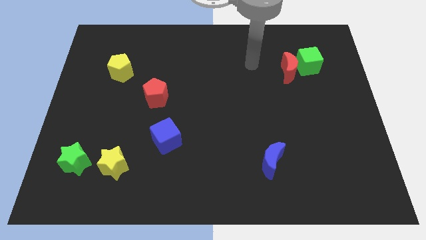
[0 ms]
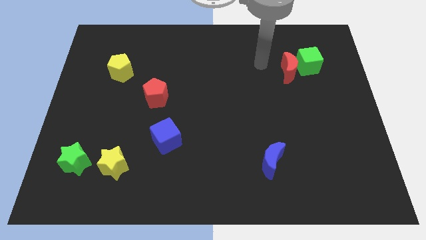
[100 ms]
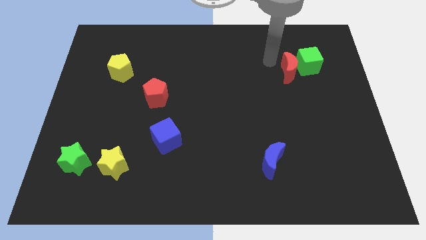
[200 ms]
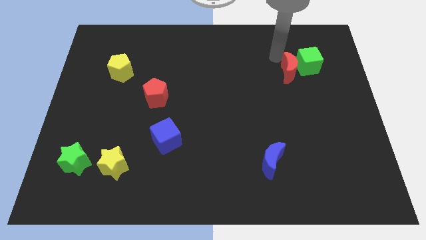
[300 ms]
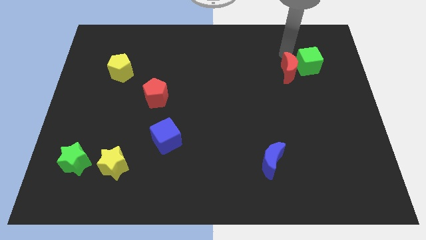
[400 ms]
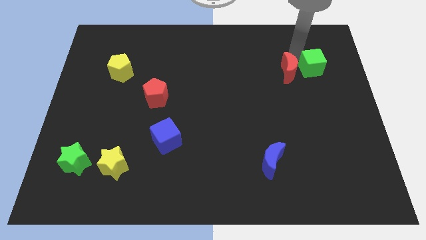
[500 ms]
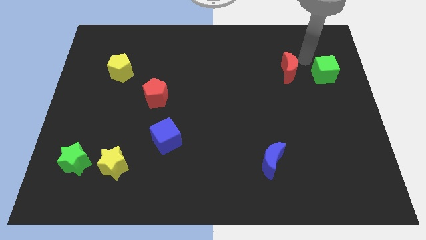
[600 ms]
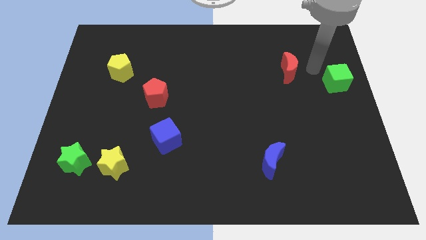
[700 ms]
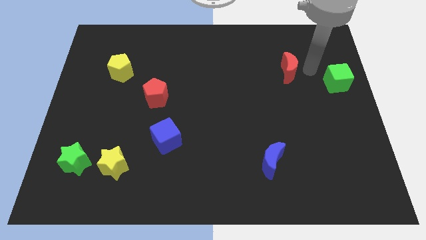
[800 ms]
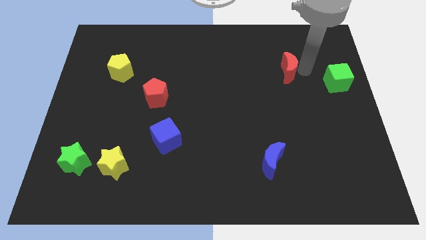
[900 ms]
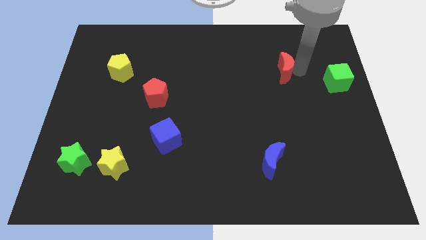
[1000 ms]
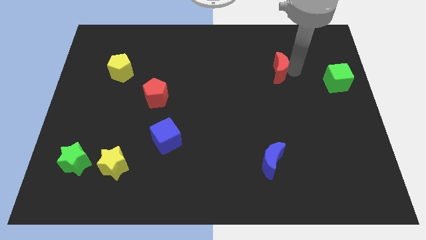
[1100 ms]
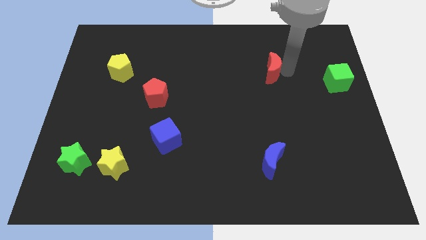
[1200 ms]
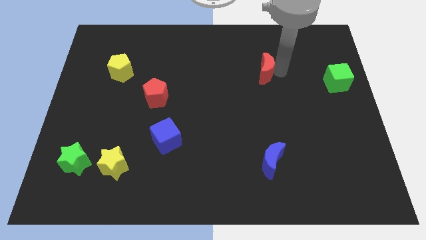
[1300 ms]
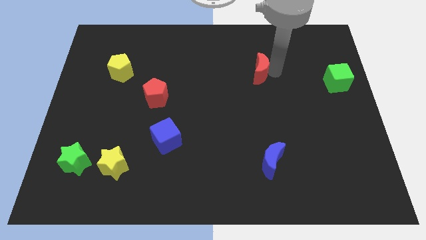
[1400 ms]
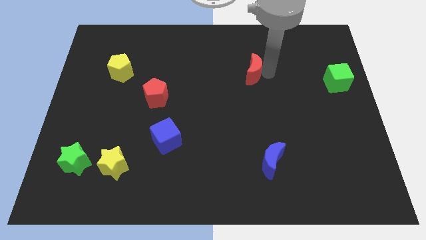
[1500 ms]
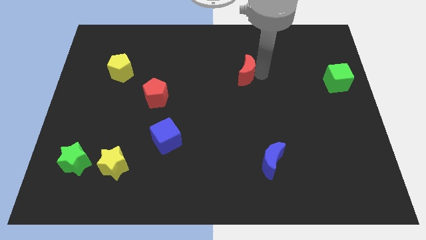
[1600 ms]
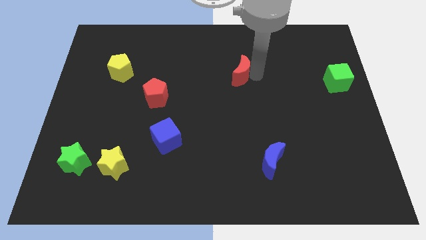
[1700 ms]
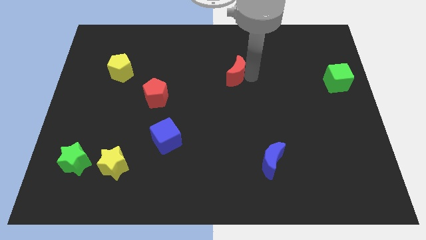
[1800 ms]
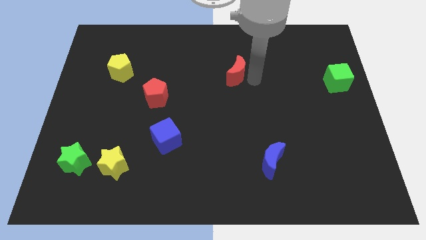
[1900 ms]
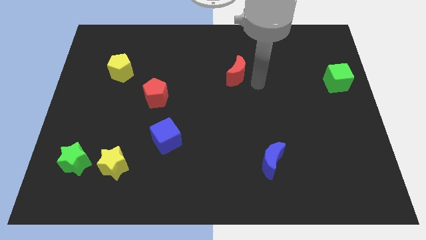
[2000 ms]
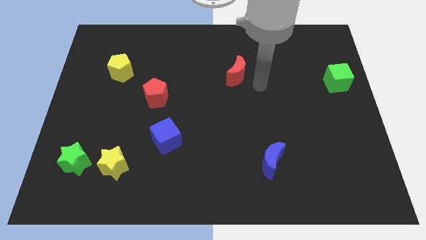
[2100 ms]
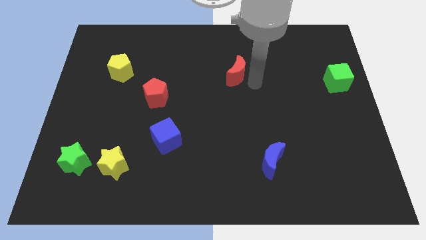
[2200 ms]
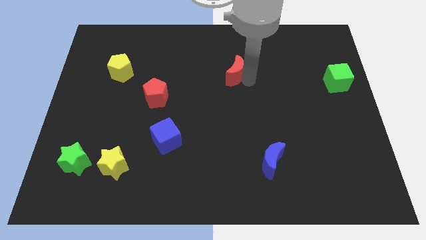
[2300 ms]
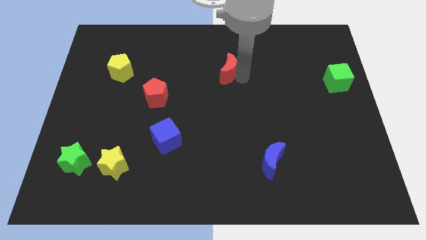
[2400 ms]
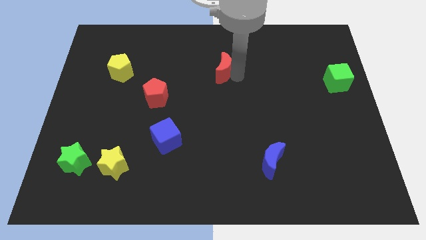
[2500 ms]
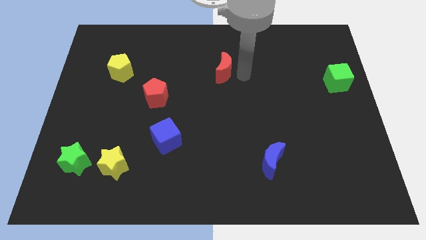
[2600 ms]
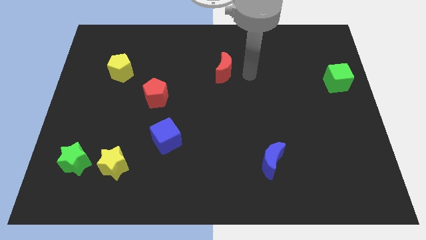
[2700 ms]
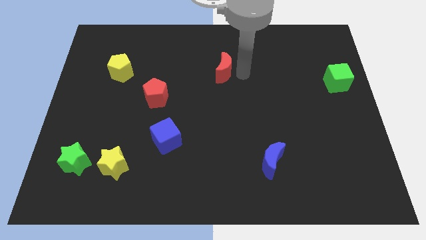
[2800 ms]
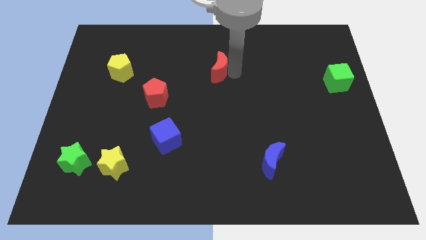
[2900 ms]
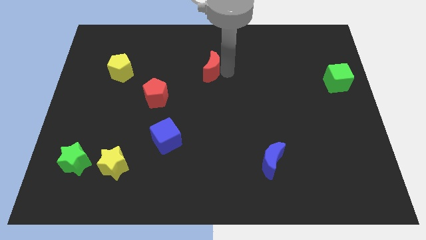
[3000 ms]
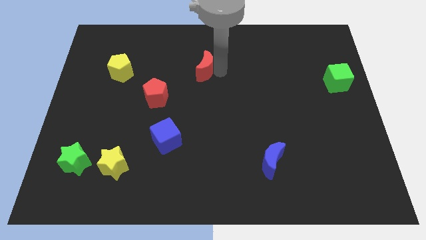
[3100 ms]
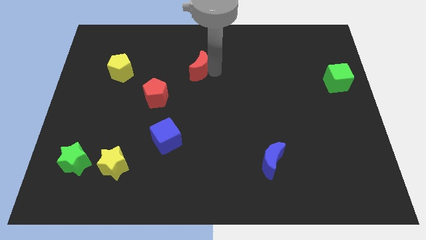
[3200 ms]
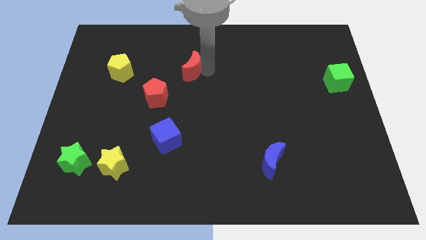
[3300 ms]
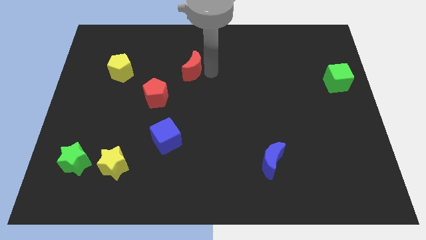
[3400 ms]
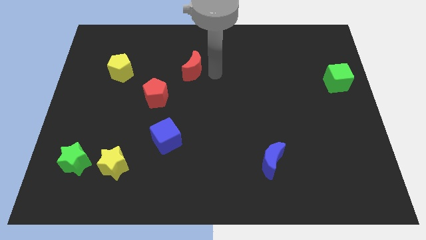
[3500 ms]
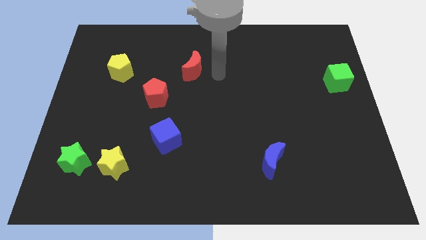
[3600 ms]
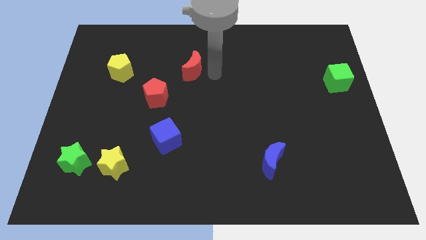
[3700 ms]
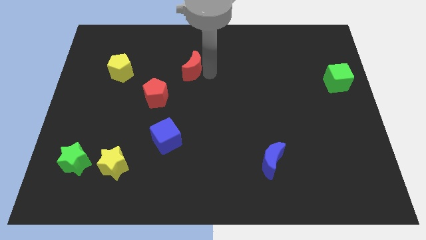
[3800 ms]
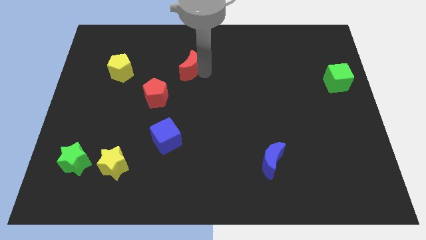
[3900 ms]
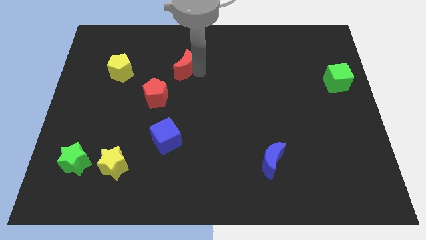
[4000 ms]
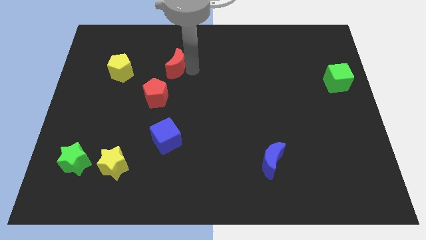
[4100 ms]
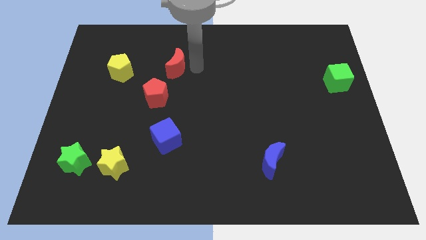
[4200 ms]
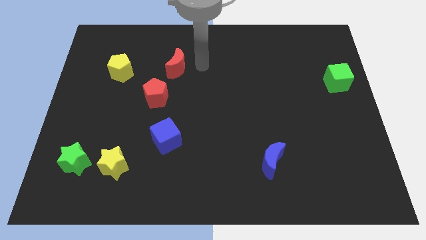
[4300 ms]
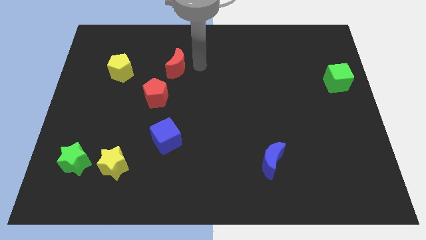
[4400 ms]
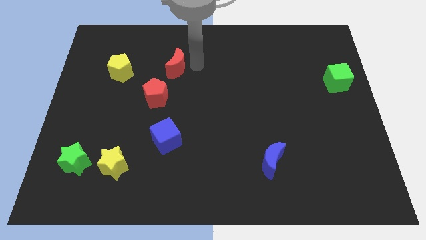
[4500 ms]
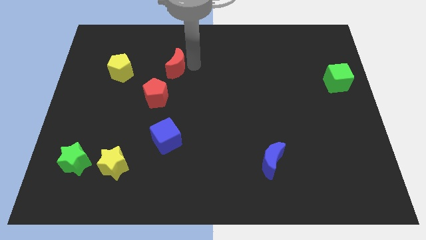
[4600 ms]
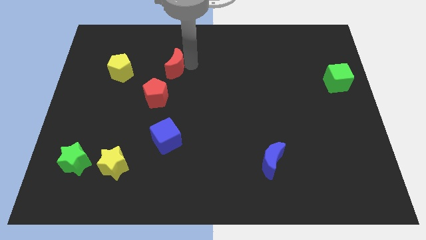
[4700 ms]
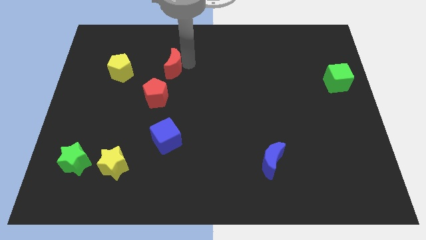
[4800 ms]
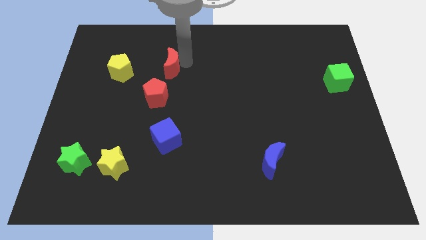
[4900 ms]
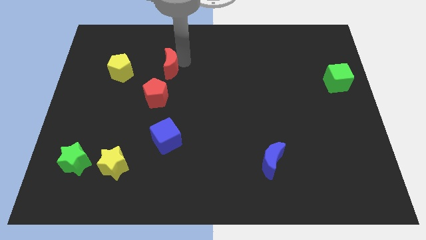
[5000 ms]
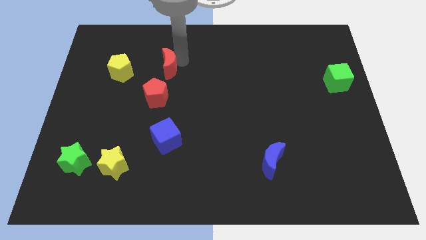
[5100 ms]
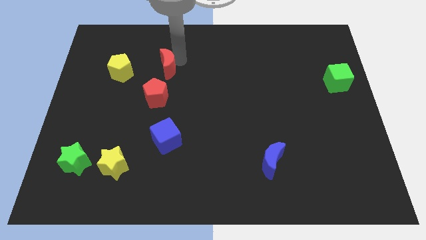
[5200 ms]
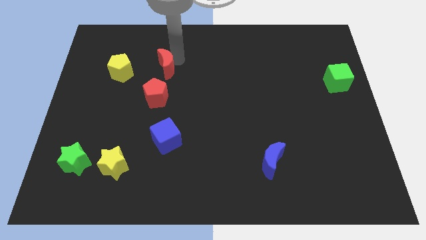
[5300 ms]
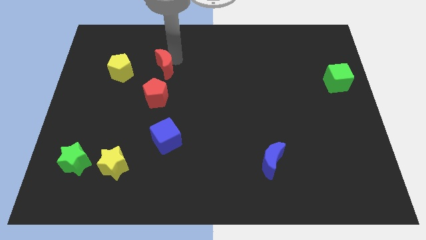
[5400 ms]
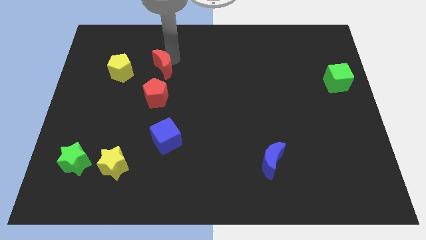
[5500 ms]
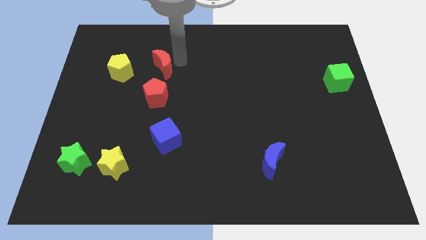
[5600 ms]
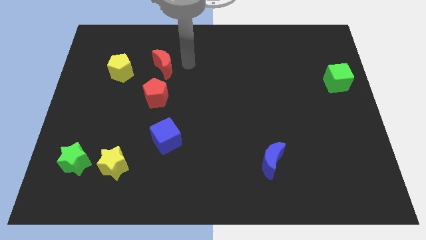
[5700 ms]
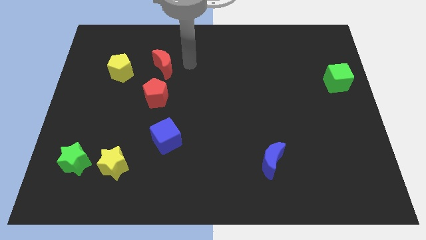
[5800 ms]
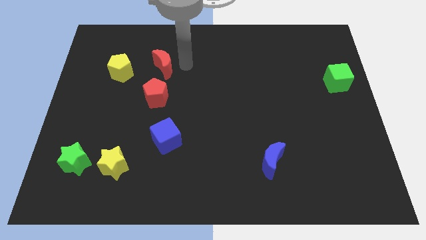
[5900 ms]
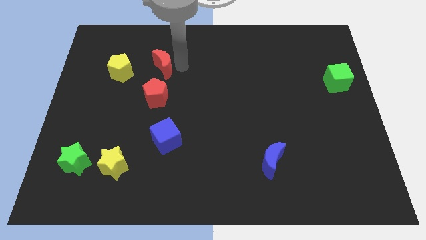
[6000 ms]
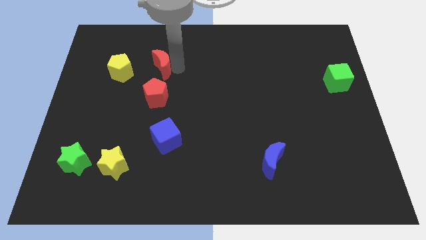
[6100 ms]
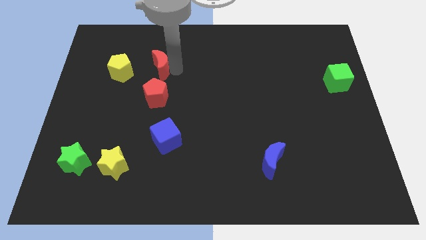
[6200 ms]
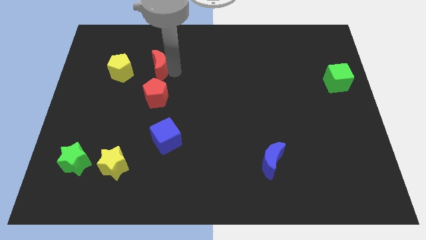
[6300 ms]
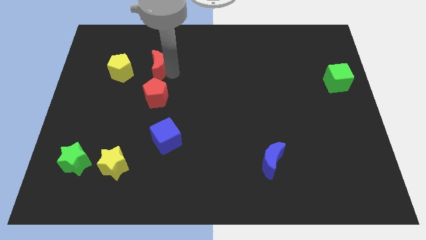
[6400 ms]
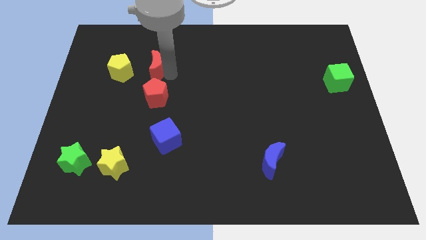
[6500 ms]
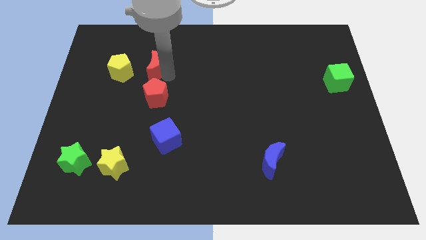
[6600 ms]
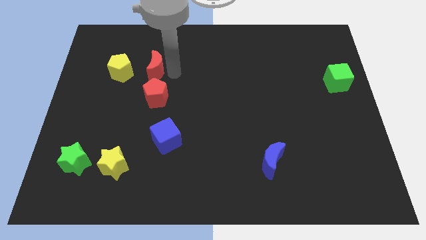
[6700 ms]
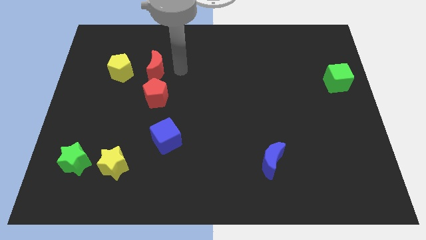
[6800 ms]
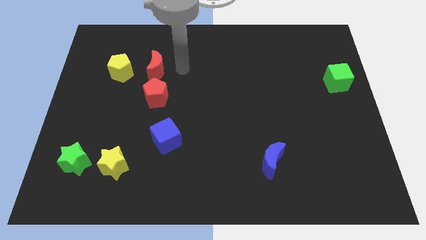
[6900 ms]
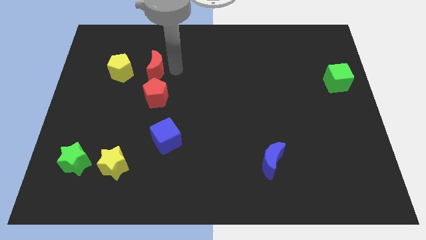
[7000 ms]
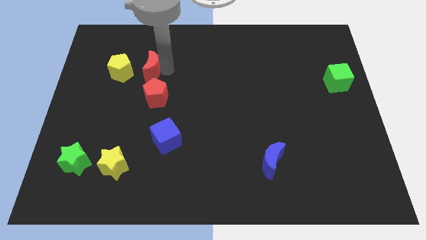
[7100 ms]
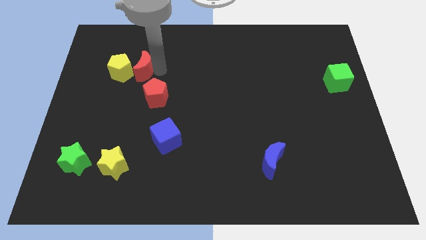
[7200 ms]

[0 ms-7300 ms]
slide the red moon towards the yellow pentagon

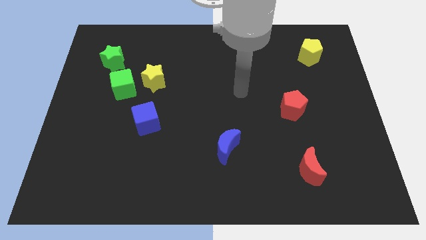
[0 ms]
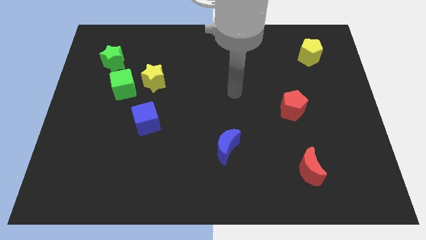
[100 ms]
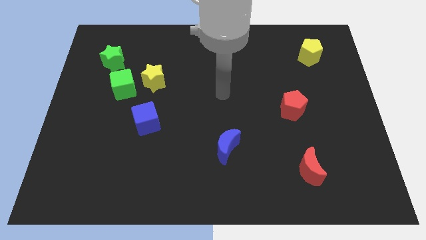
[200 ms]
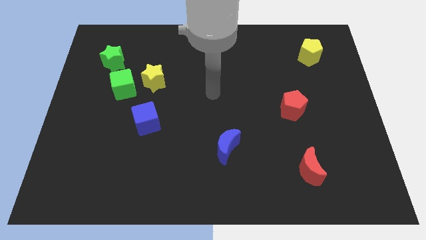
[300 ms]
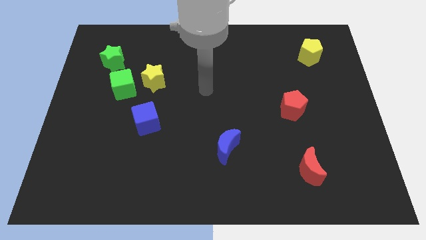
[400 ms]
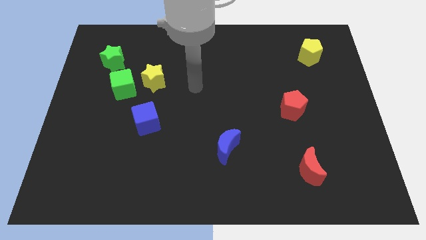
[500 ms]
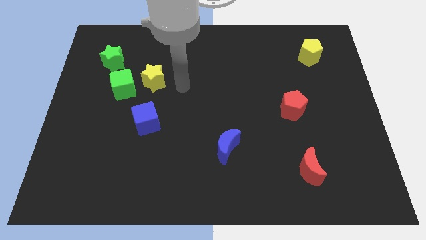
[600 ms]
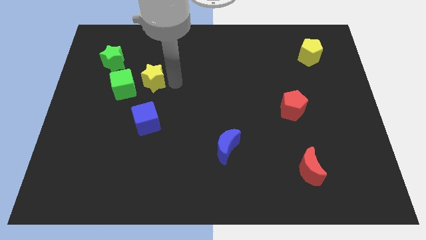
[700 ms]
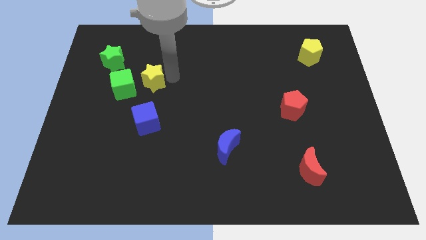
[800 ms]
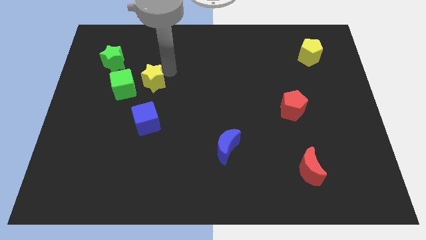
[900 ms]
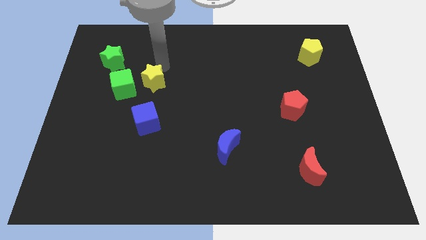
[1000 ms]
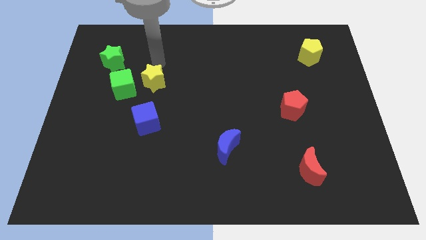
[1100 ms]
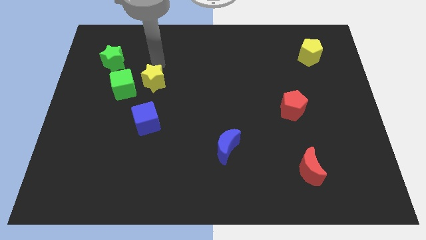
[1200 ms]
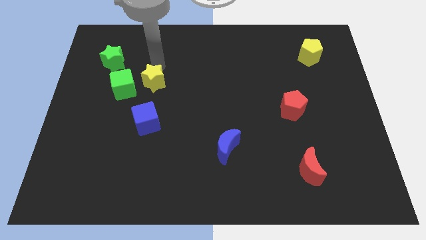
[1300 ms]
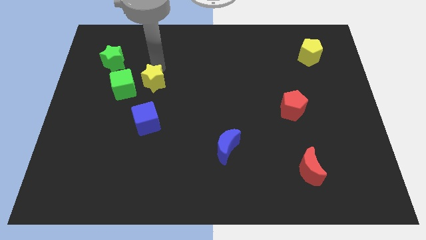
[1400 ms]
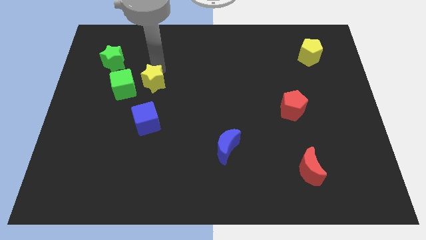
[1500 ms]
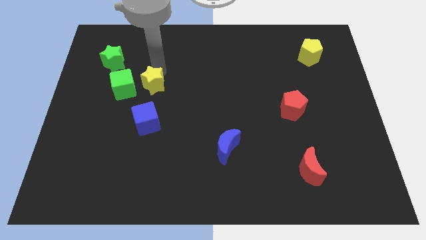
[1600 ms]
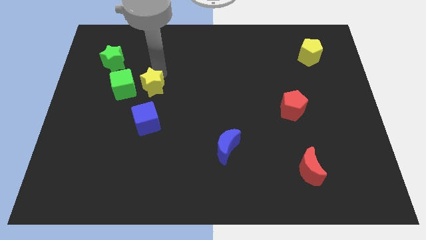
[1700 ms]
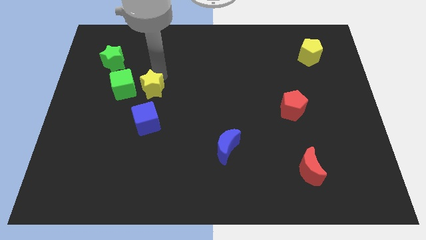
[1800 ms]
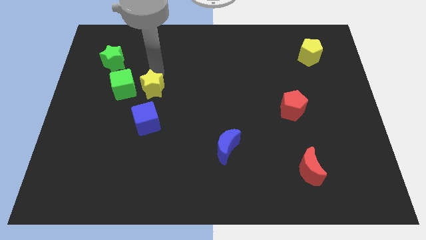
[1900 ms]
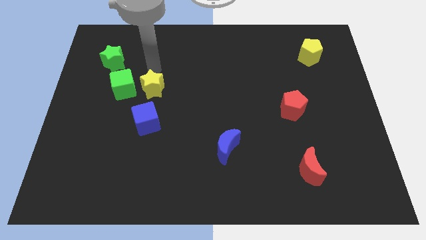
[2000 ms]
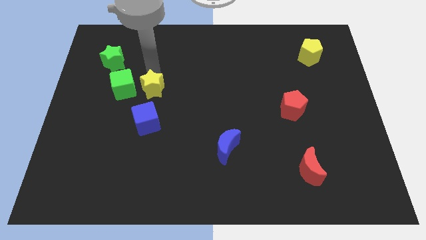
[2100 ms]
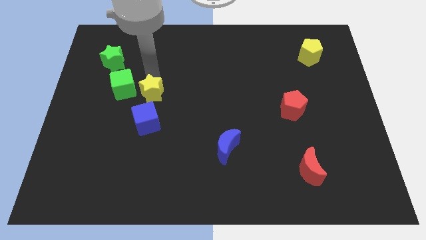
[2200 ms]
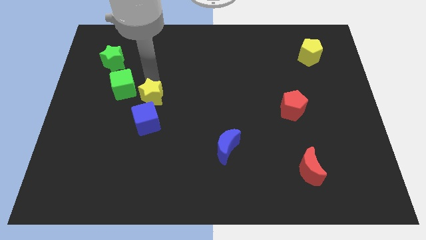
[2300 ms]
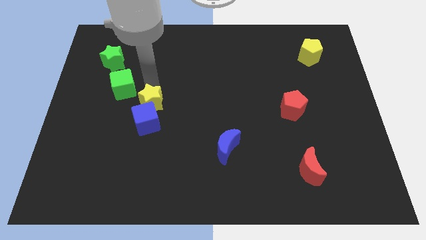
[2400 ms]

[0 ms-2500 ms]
move the yellow star to the blue cube
